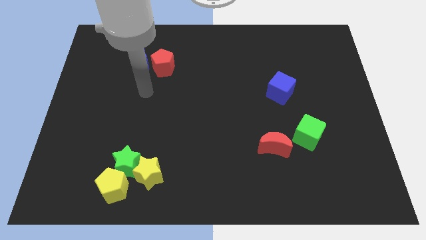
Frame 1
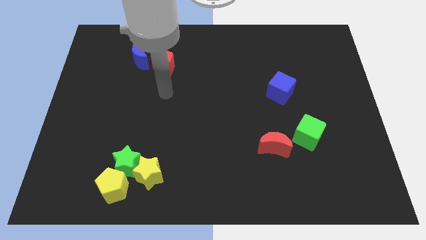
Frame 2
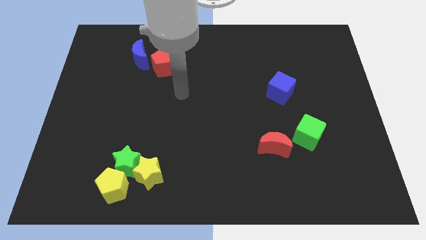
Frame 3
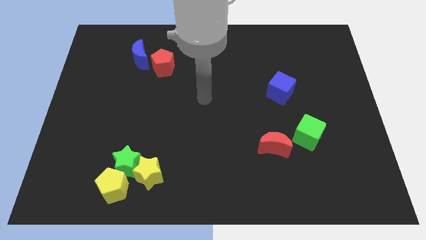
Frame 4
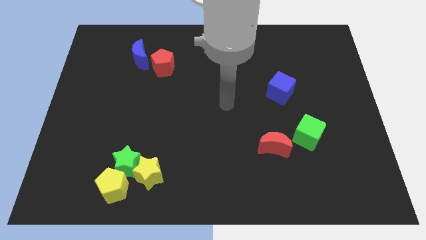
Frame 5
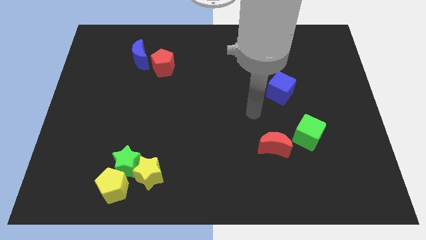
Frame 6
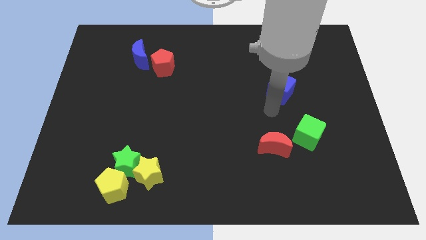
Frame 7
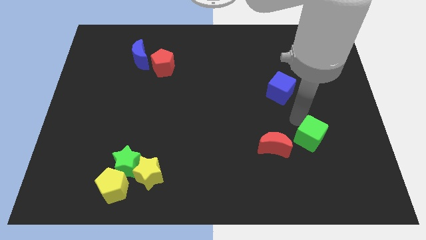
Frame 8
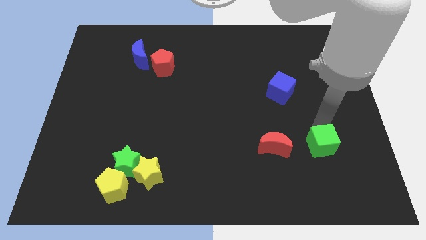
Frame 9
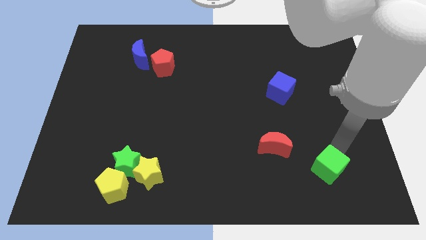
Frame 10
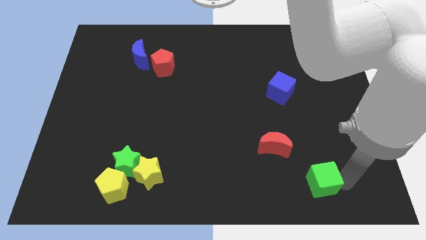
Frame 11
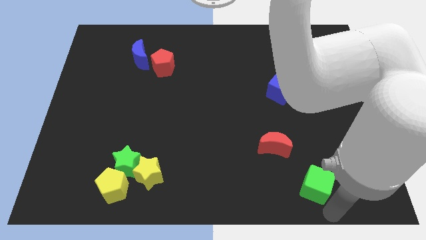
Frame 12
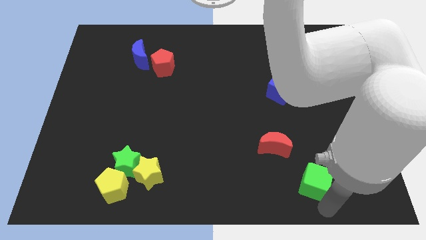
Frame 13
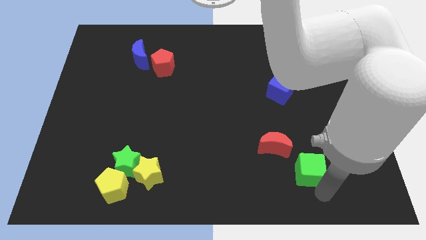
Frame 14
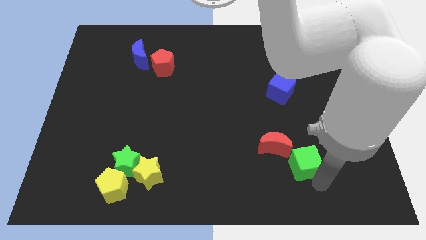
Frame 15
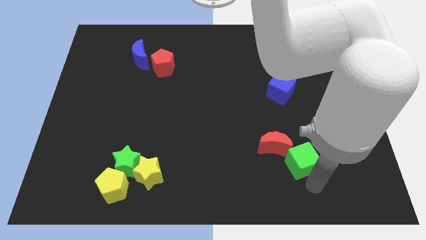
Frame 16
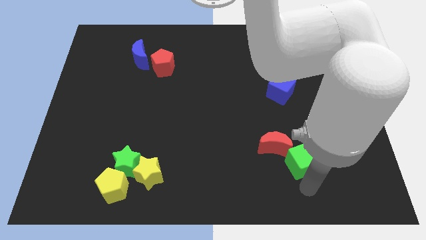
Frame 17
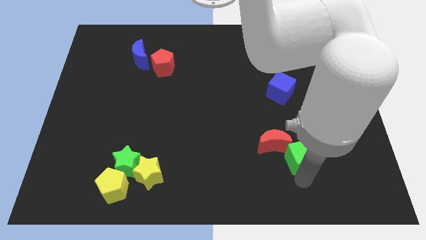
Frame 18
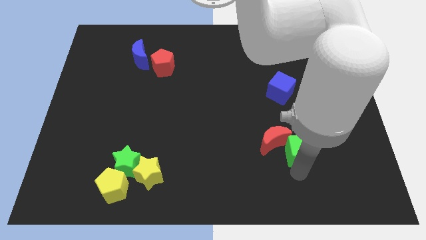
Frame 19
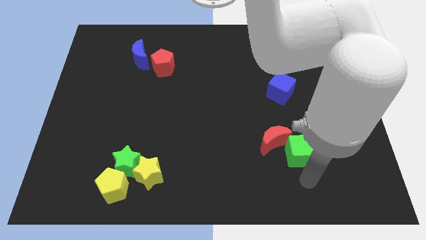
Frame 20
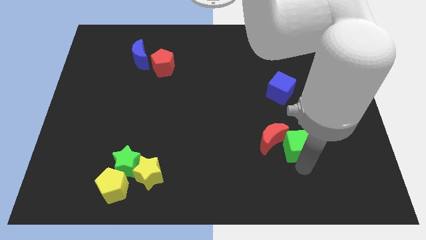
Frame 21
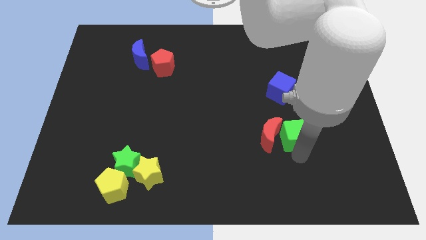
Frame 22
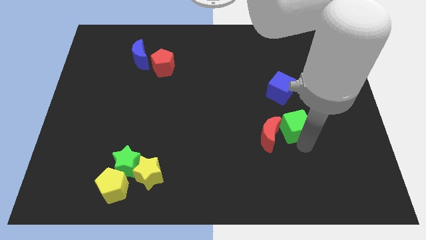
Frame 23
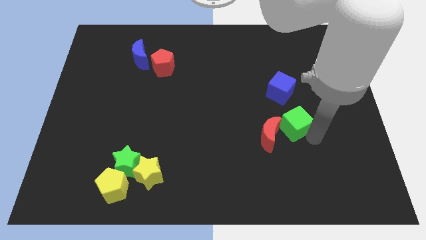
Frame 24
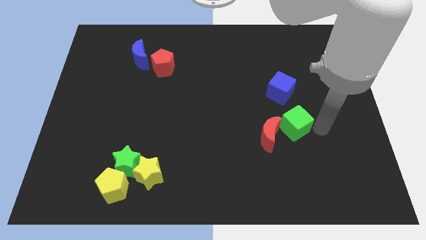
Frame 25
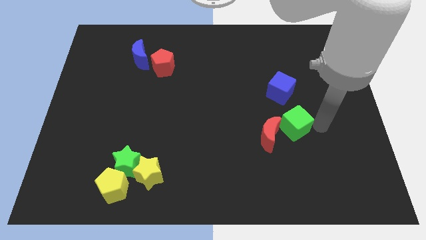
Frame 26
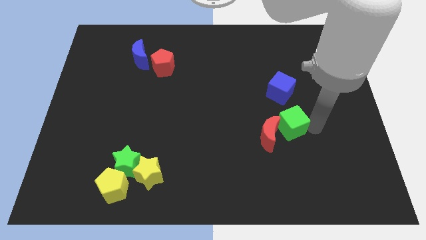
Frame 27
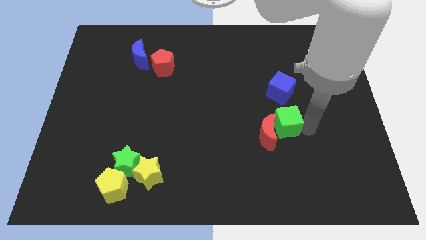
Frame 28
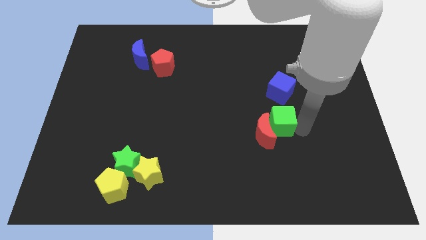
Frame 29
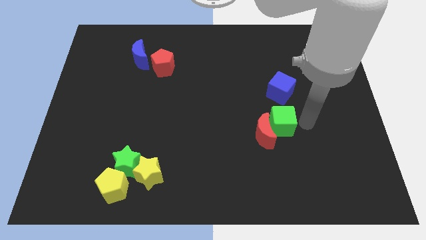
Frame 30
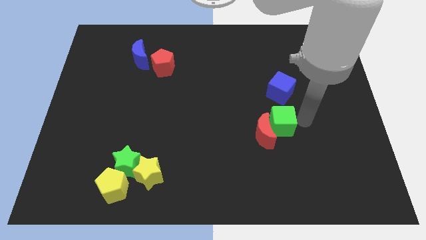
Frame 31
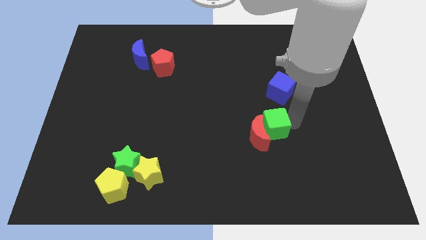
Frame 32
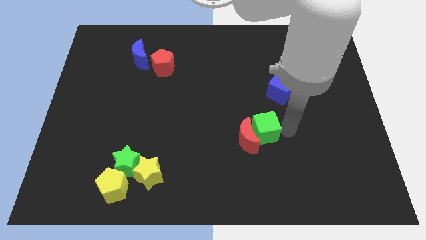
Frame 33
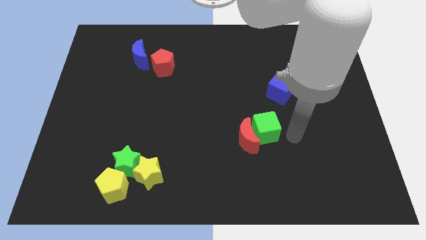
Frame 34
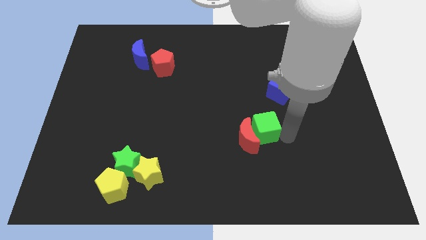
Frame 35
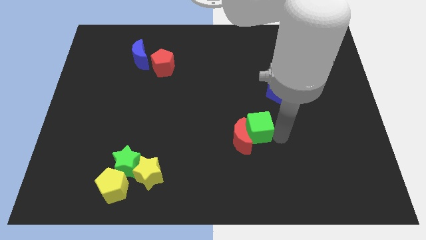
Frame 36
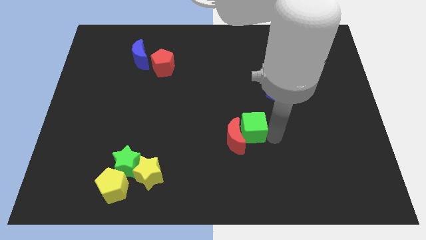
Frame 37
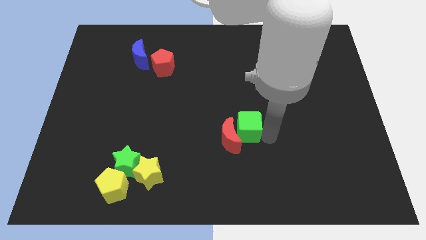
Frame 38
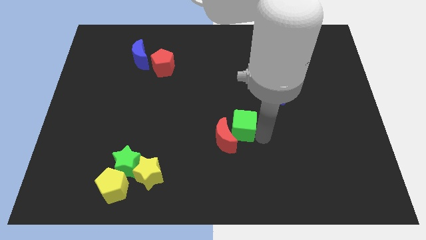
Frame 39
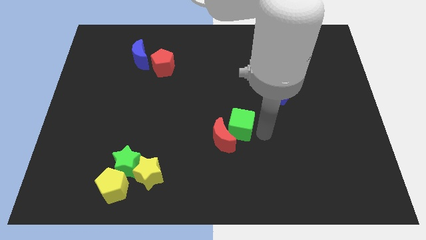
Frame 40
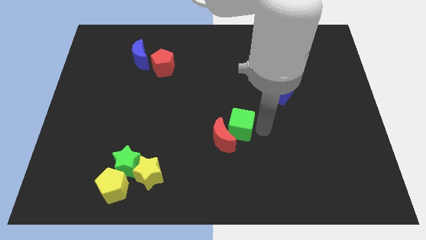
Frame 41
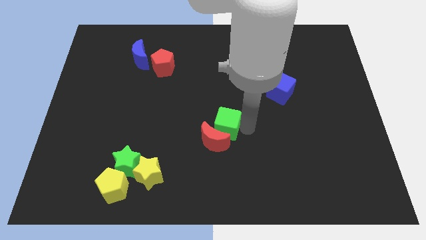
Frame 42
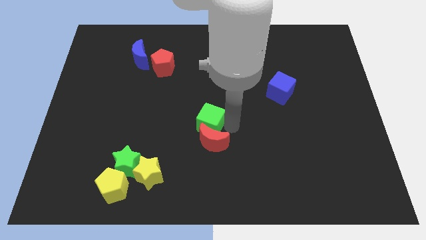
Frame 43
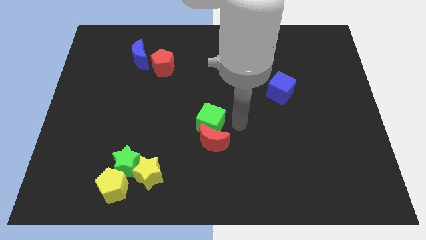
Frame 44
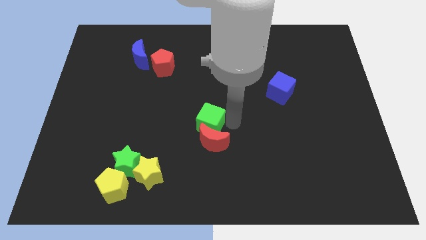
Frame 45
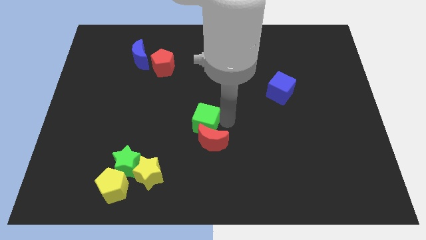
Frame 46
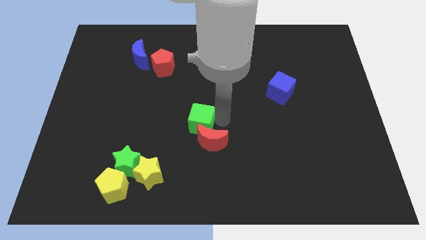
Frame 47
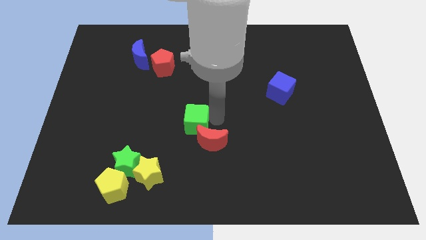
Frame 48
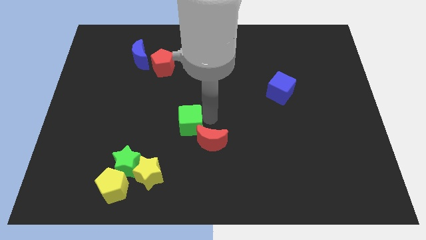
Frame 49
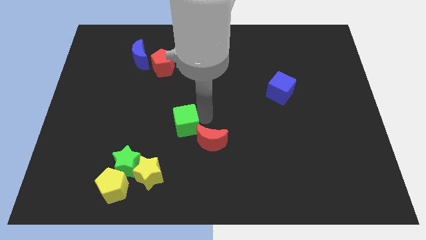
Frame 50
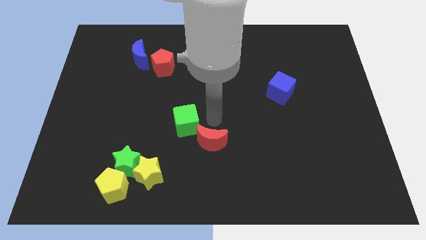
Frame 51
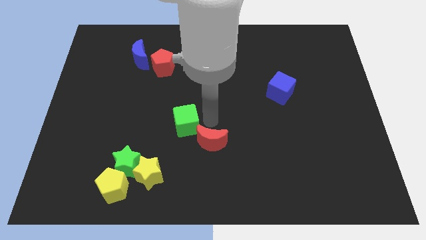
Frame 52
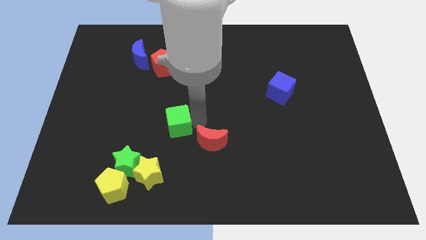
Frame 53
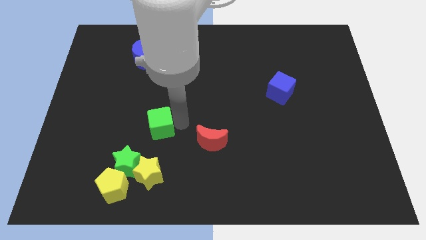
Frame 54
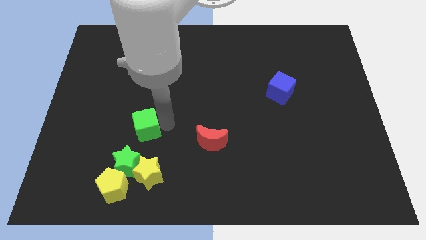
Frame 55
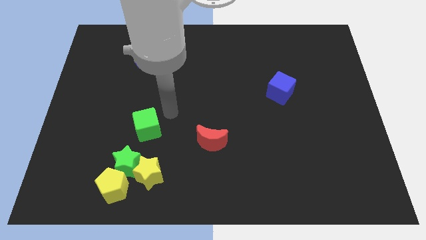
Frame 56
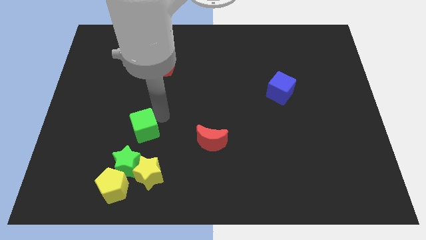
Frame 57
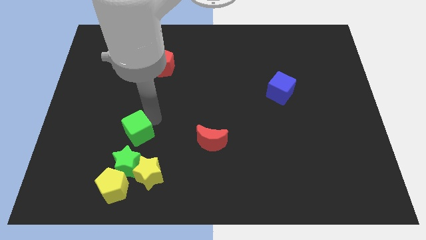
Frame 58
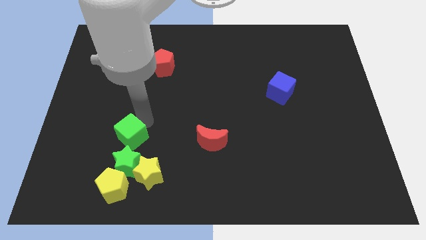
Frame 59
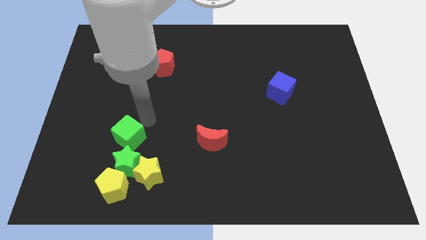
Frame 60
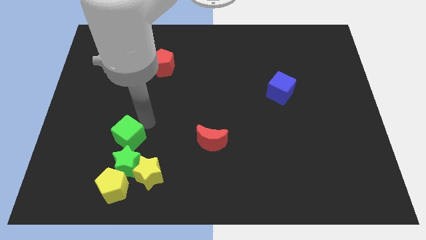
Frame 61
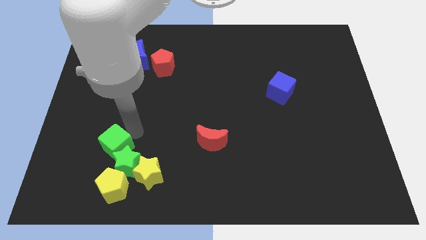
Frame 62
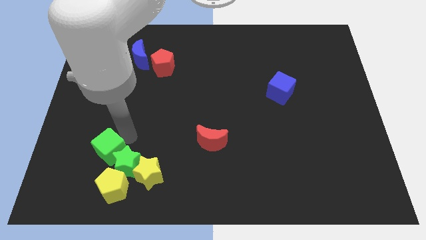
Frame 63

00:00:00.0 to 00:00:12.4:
slide the green cube to the top left side of the yellow pentagon

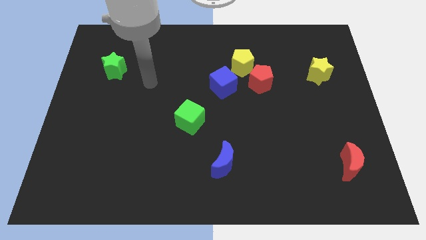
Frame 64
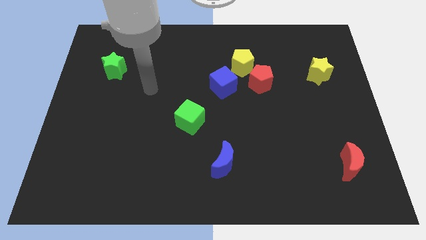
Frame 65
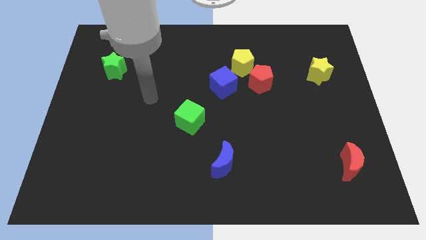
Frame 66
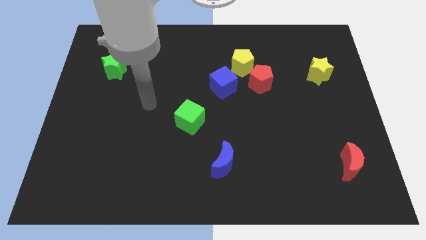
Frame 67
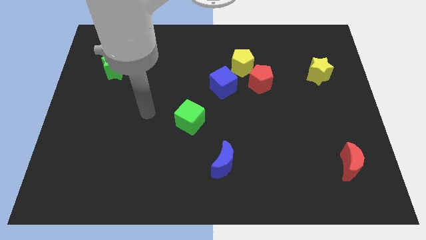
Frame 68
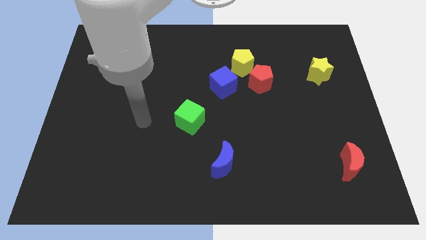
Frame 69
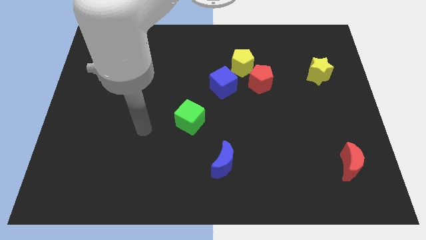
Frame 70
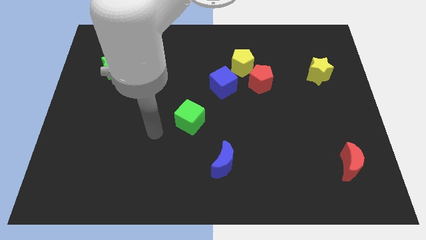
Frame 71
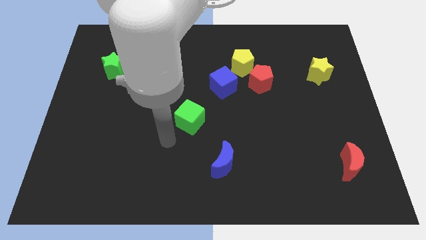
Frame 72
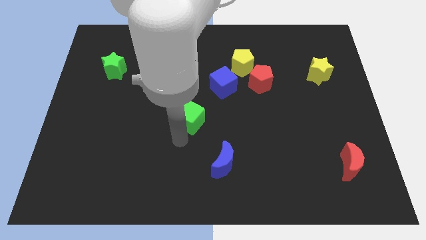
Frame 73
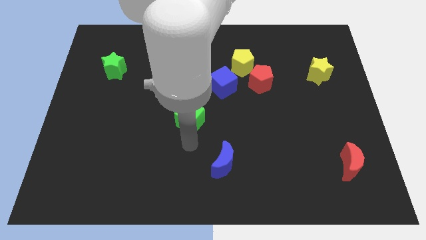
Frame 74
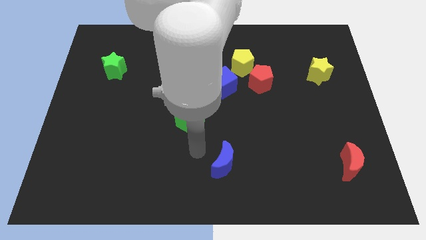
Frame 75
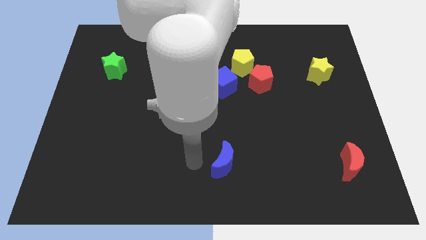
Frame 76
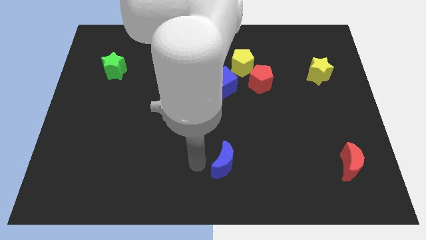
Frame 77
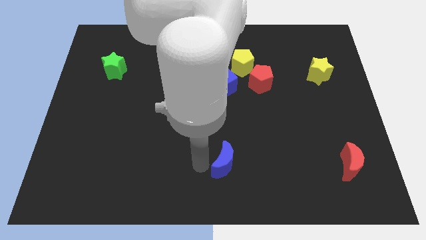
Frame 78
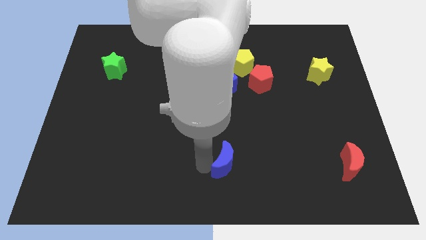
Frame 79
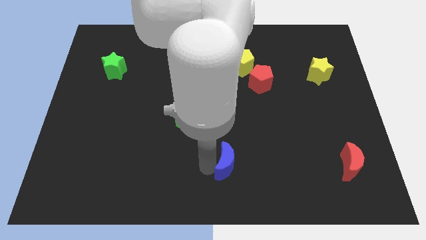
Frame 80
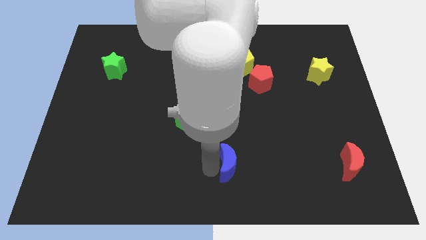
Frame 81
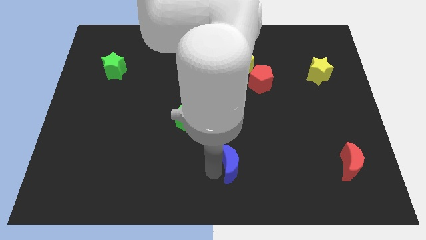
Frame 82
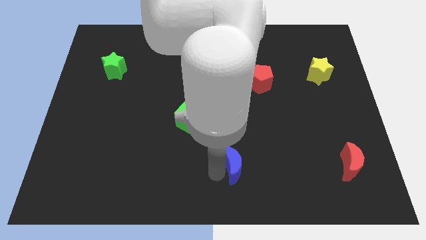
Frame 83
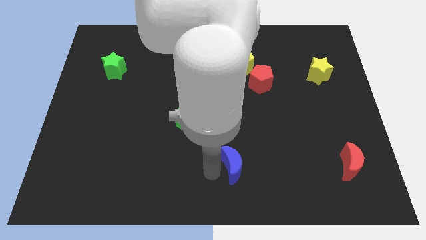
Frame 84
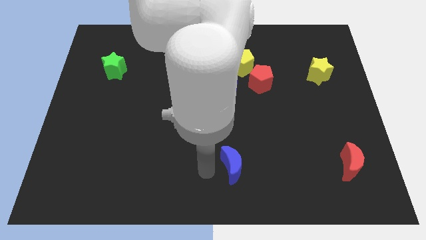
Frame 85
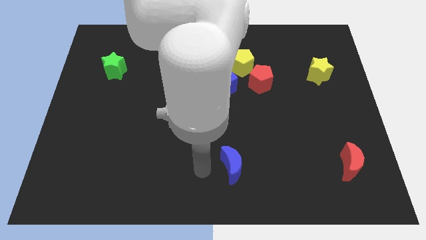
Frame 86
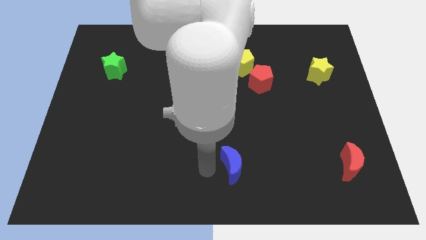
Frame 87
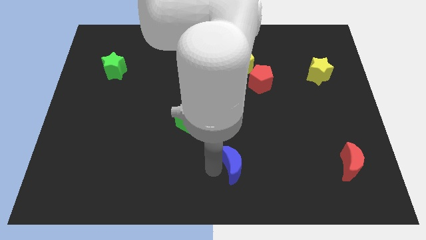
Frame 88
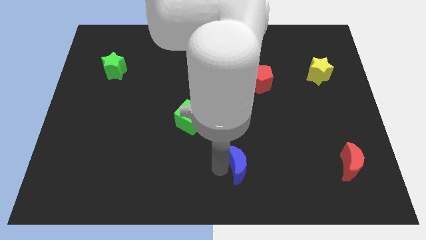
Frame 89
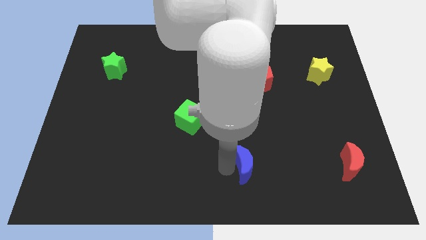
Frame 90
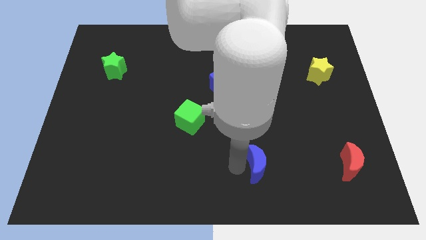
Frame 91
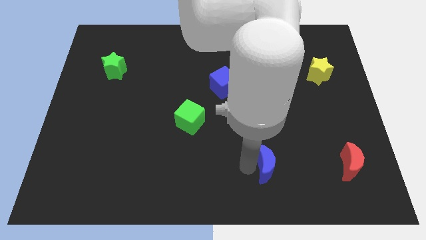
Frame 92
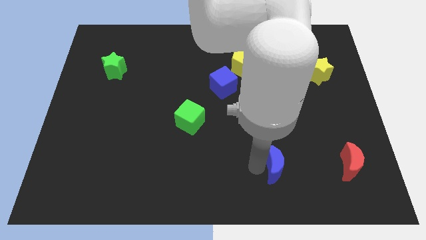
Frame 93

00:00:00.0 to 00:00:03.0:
slide the blue moon just left of the red moon
